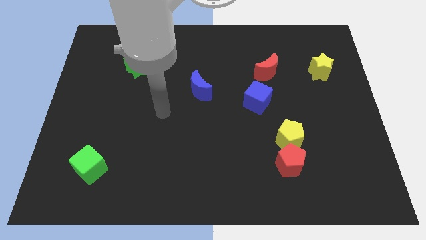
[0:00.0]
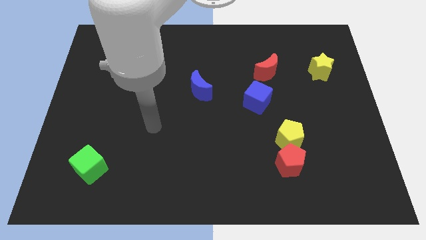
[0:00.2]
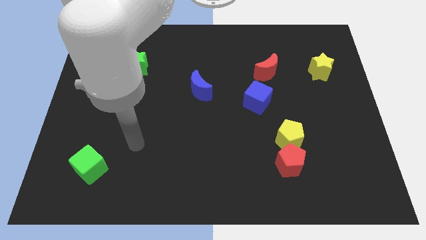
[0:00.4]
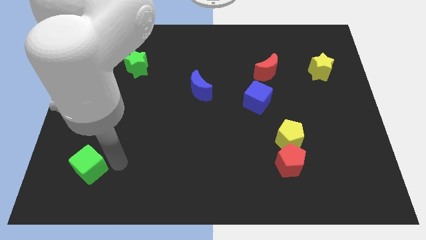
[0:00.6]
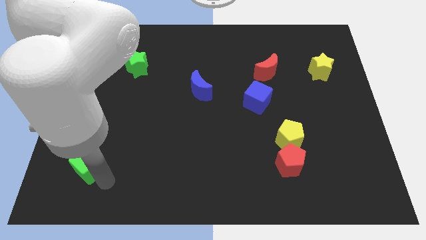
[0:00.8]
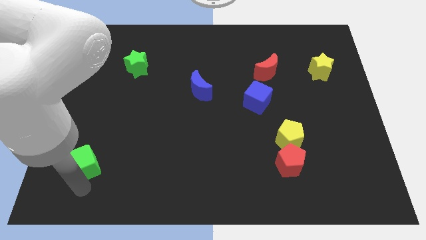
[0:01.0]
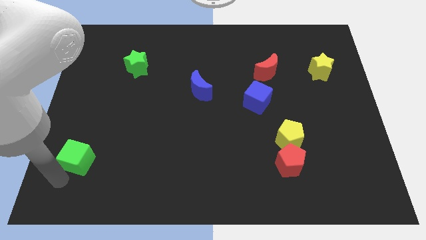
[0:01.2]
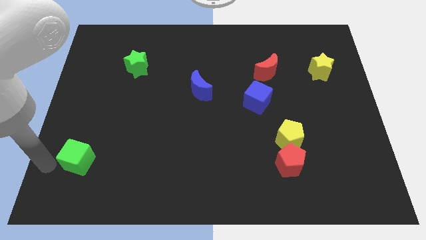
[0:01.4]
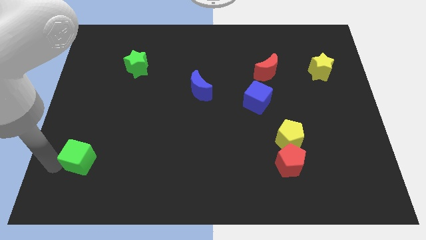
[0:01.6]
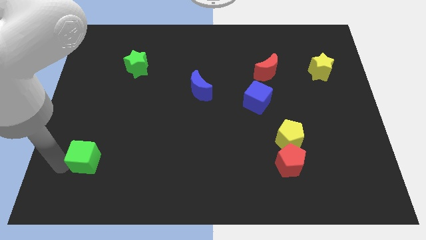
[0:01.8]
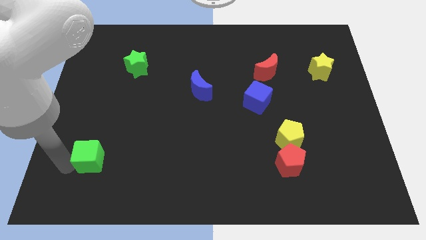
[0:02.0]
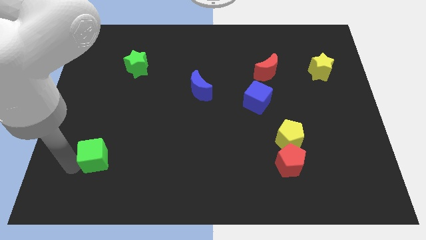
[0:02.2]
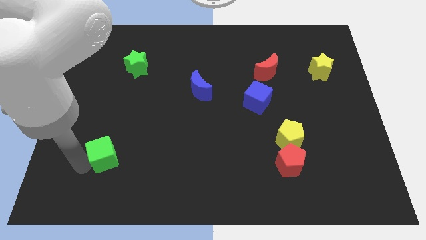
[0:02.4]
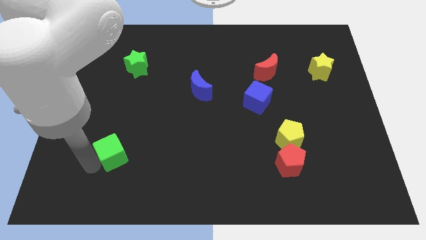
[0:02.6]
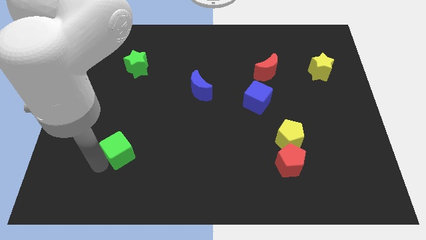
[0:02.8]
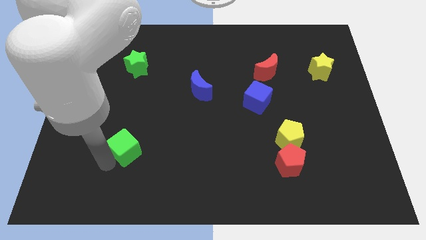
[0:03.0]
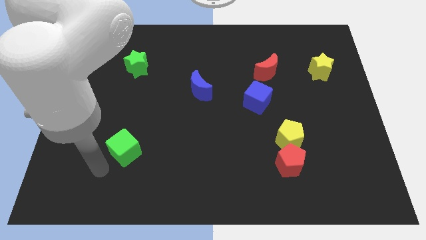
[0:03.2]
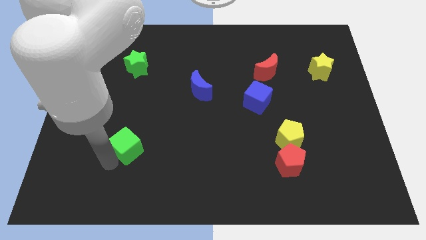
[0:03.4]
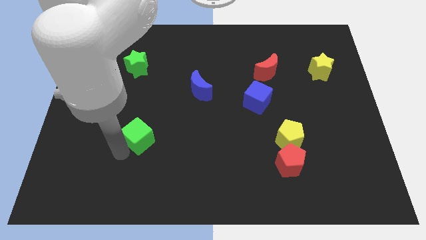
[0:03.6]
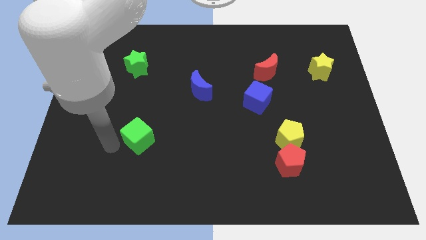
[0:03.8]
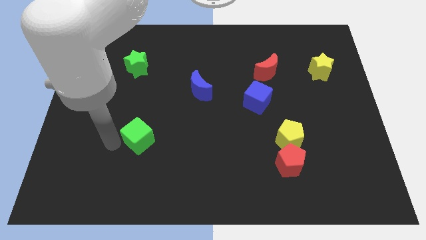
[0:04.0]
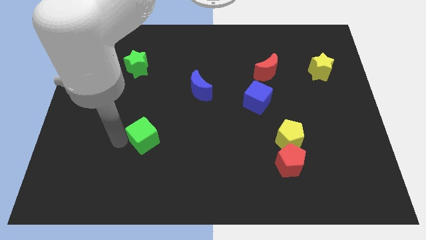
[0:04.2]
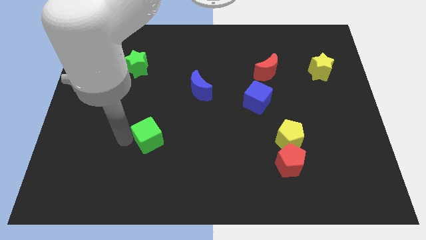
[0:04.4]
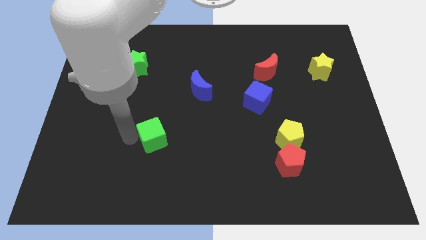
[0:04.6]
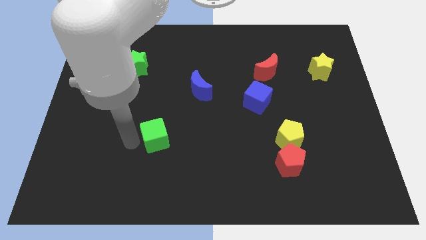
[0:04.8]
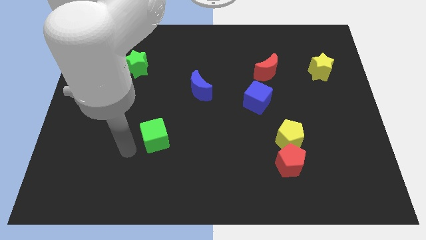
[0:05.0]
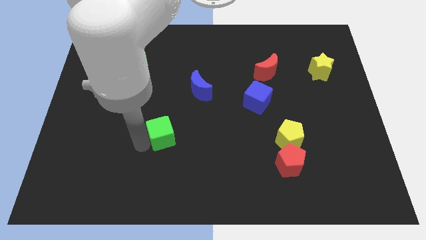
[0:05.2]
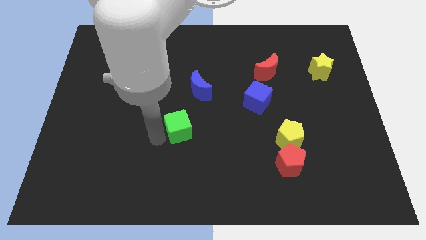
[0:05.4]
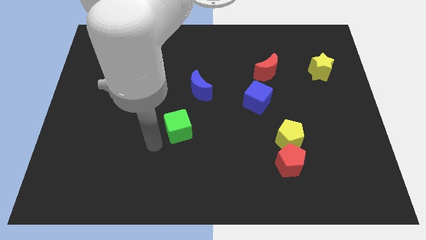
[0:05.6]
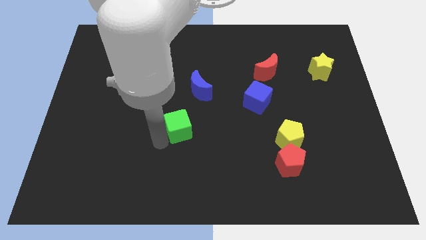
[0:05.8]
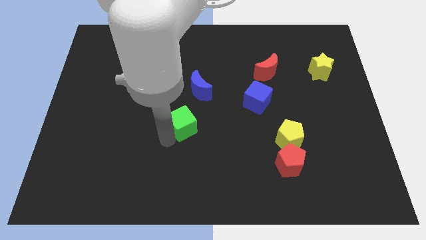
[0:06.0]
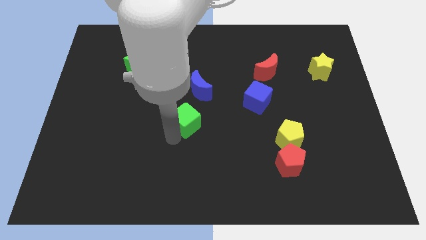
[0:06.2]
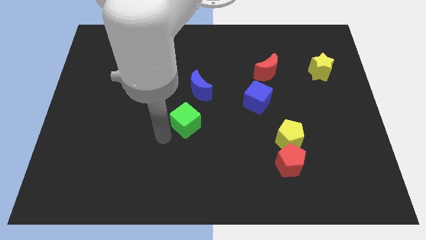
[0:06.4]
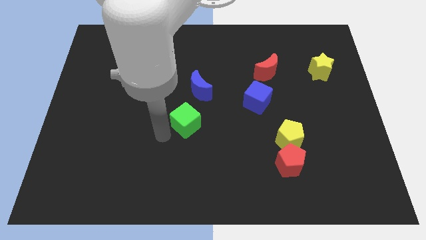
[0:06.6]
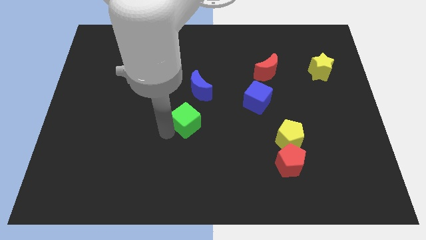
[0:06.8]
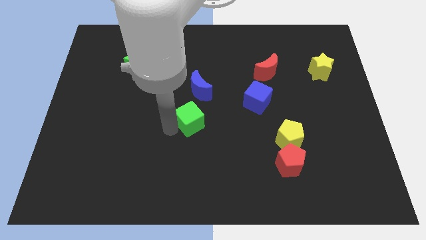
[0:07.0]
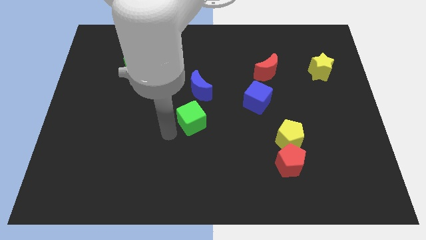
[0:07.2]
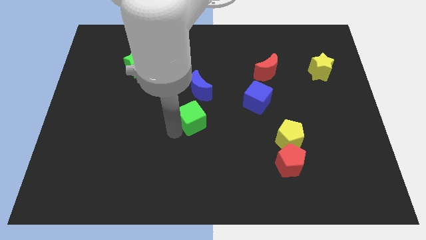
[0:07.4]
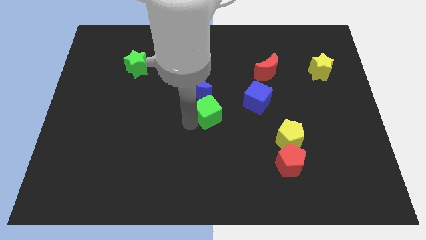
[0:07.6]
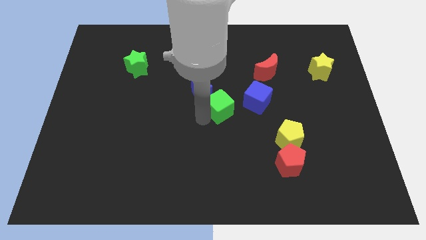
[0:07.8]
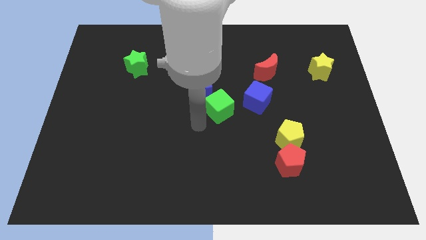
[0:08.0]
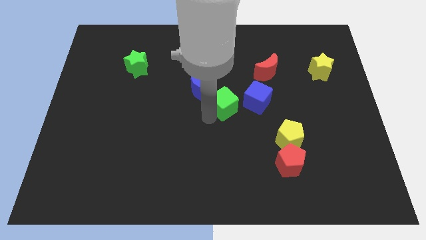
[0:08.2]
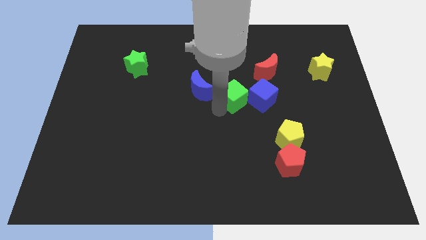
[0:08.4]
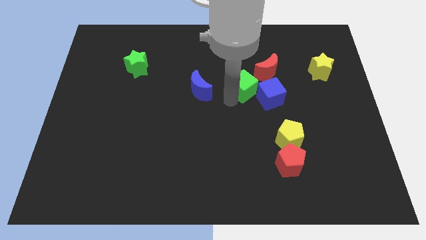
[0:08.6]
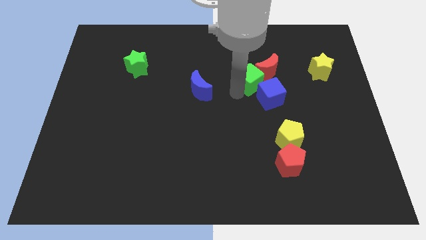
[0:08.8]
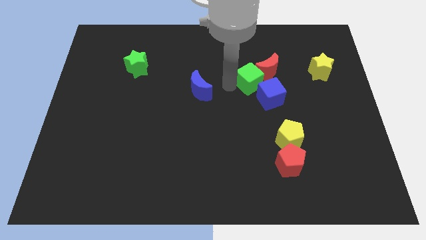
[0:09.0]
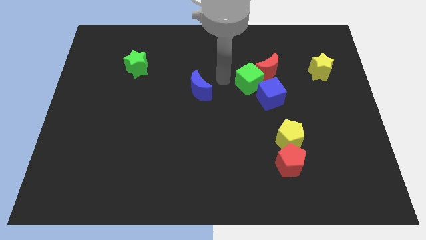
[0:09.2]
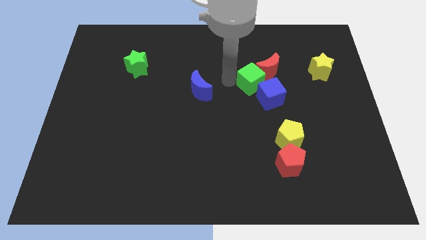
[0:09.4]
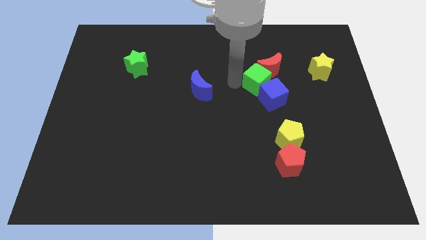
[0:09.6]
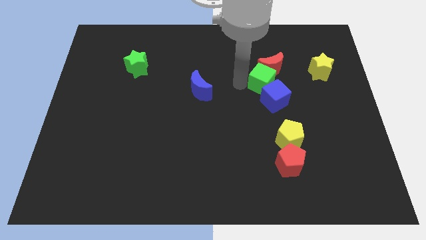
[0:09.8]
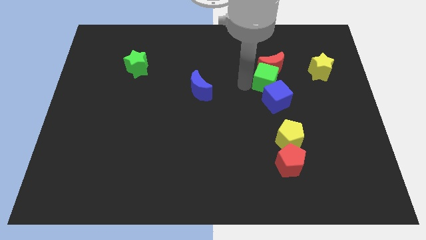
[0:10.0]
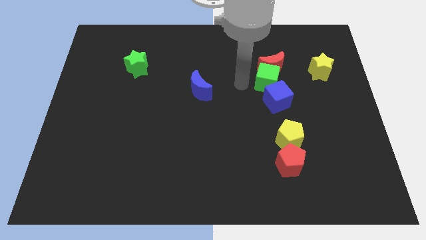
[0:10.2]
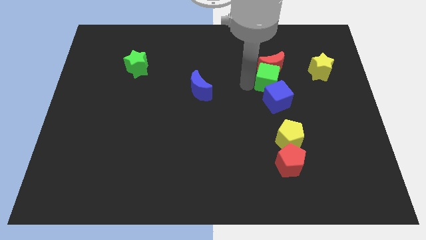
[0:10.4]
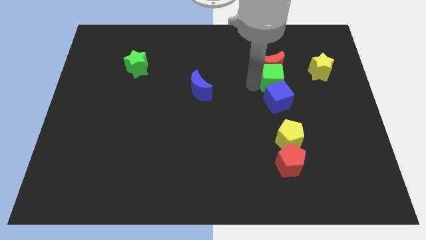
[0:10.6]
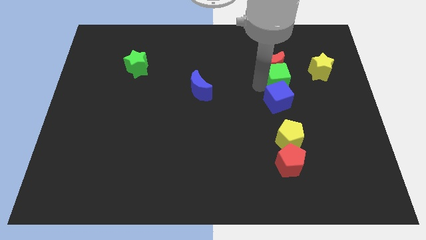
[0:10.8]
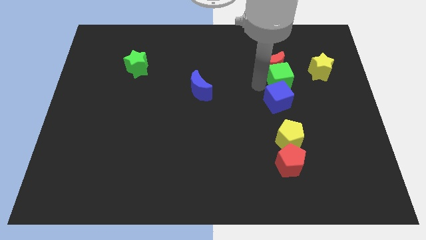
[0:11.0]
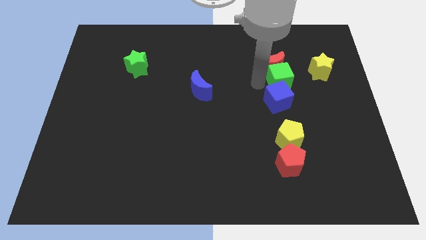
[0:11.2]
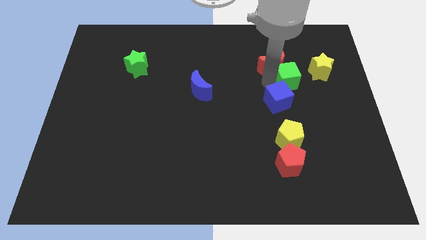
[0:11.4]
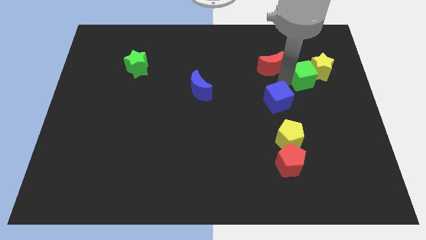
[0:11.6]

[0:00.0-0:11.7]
push the green cube to the yellow star

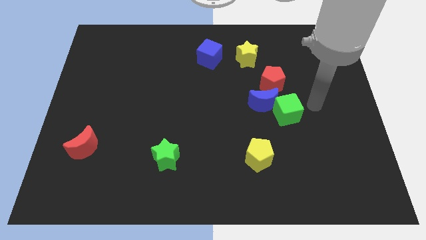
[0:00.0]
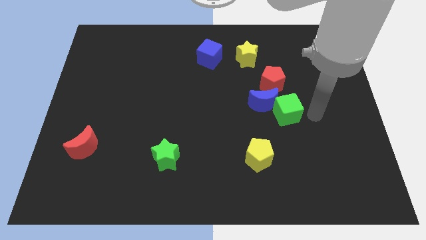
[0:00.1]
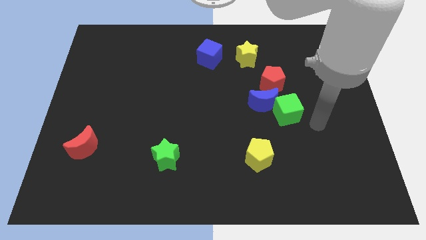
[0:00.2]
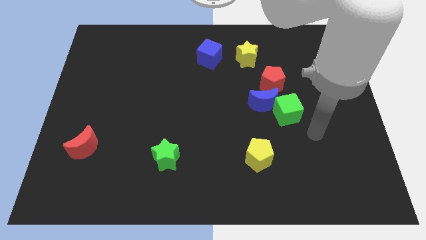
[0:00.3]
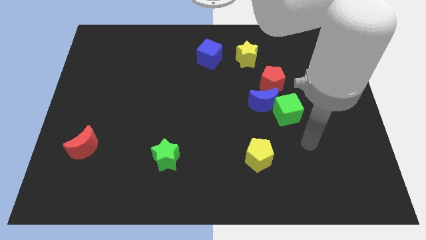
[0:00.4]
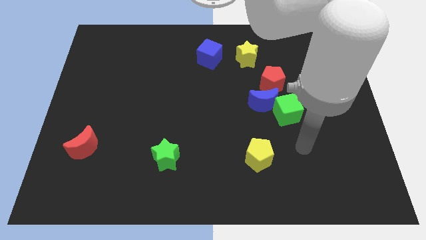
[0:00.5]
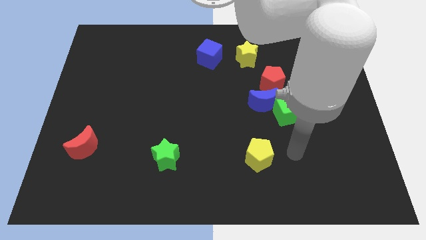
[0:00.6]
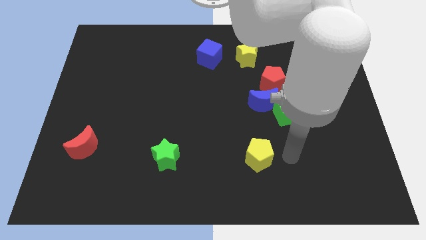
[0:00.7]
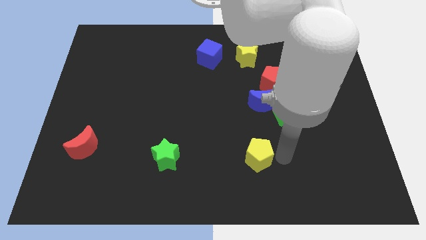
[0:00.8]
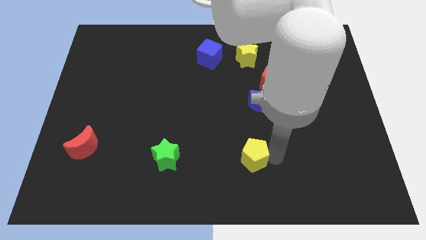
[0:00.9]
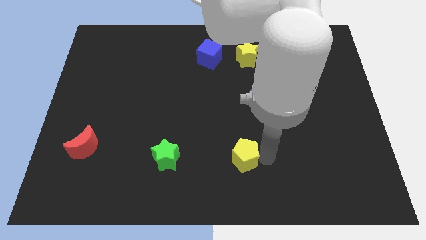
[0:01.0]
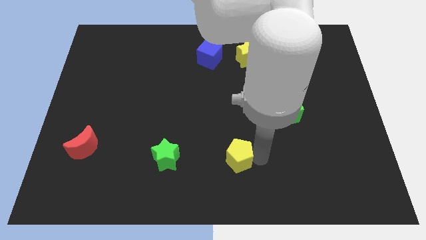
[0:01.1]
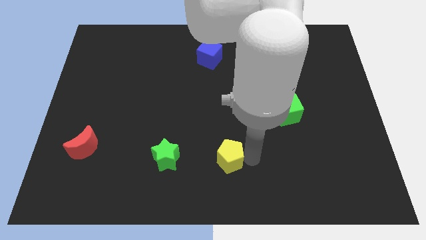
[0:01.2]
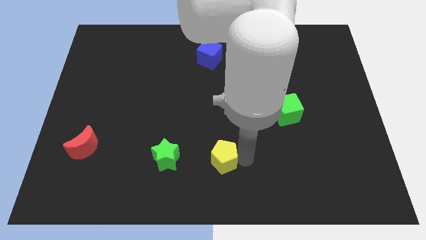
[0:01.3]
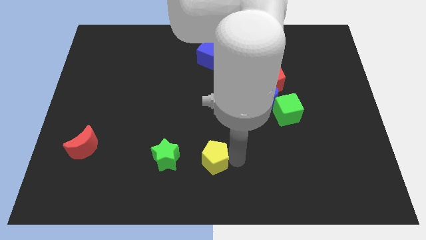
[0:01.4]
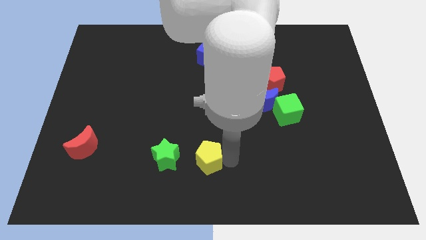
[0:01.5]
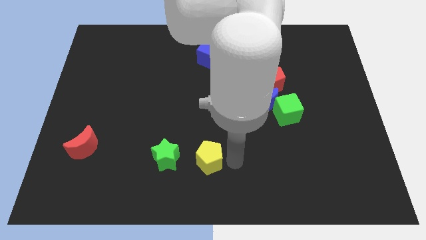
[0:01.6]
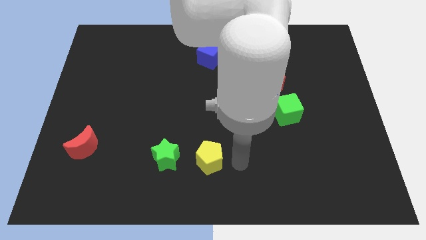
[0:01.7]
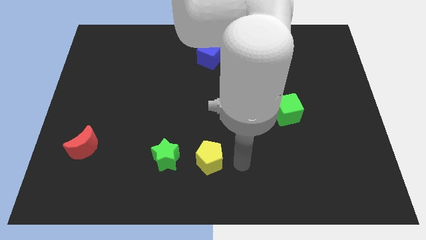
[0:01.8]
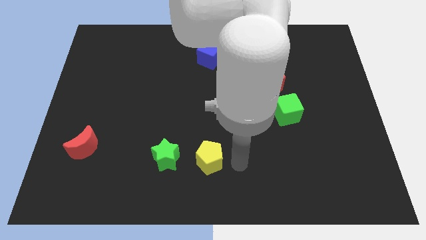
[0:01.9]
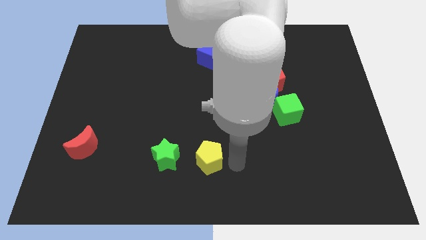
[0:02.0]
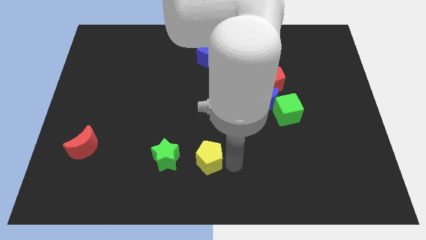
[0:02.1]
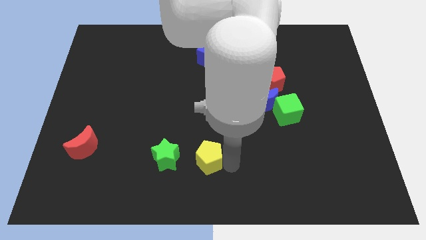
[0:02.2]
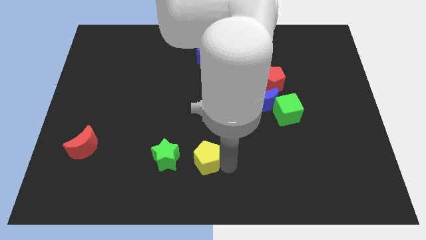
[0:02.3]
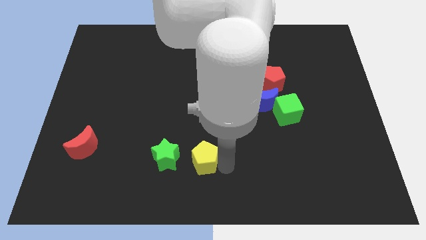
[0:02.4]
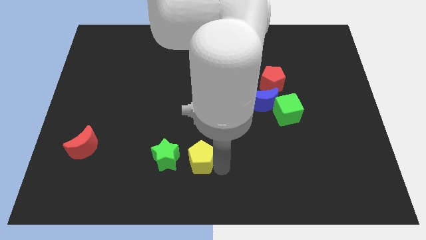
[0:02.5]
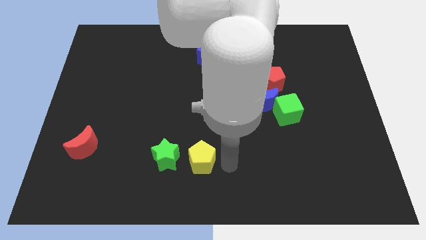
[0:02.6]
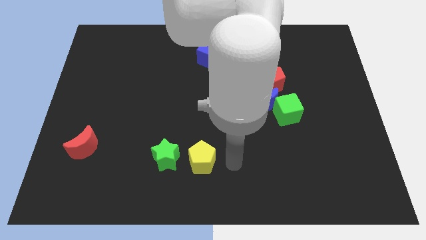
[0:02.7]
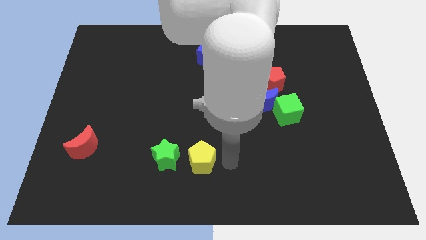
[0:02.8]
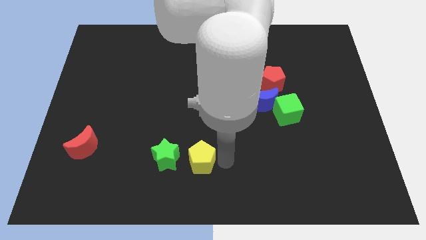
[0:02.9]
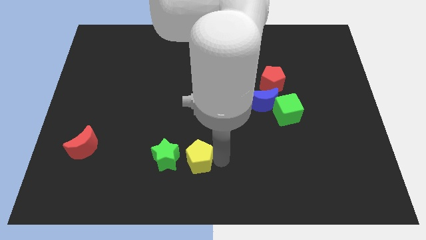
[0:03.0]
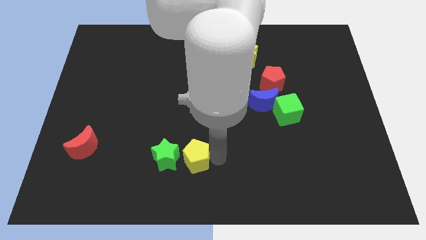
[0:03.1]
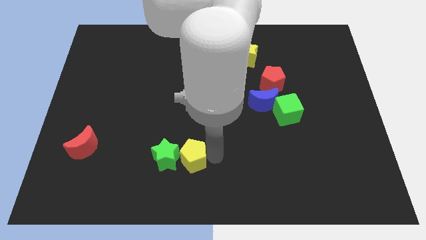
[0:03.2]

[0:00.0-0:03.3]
move the yellow pentagon to the green star
